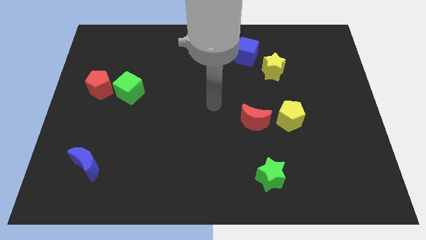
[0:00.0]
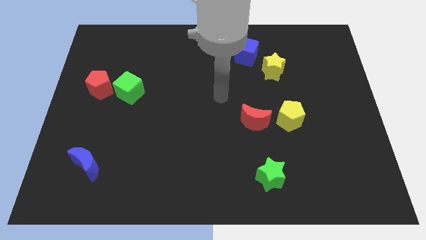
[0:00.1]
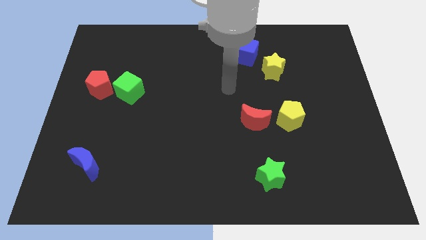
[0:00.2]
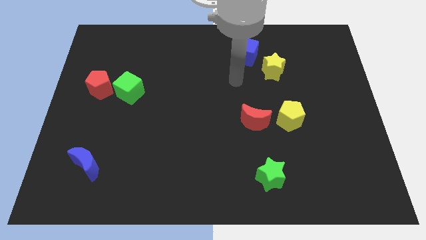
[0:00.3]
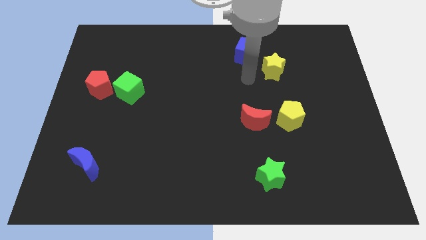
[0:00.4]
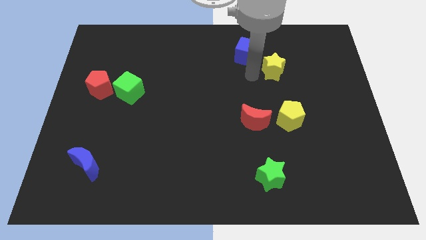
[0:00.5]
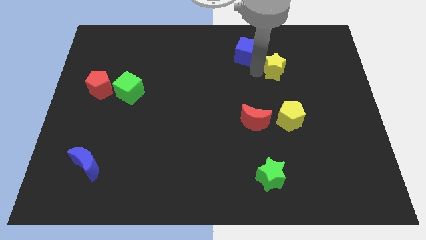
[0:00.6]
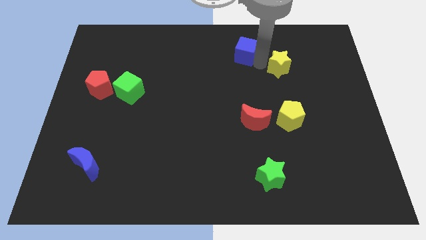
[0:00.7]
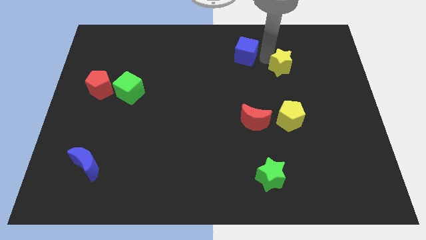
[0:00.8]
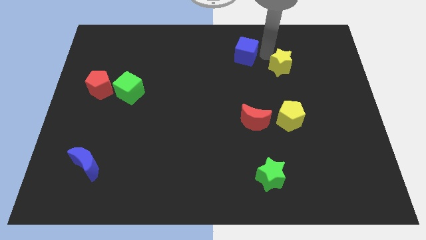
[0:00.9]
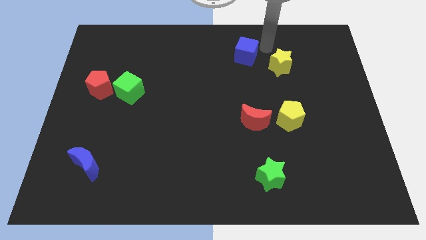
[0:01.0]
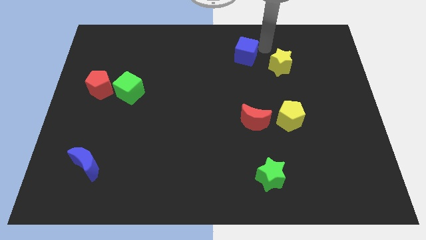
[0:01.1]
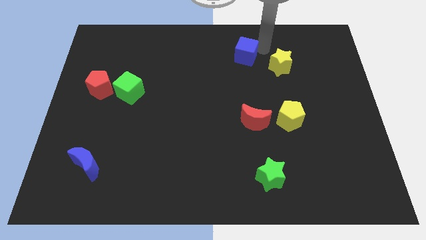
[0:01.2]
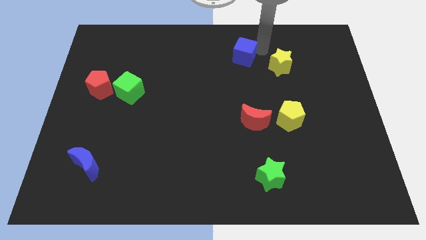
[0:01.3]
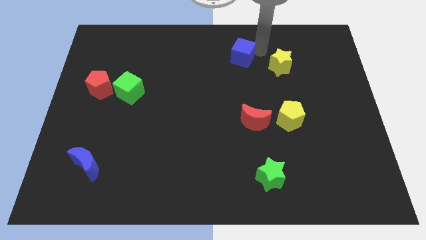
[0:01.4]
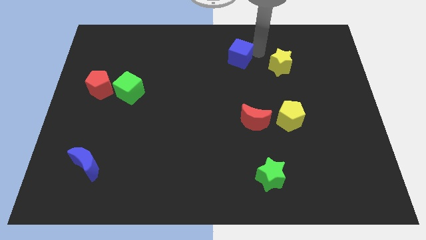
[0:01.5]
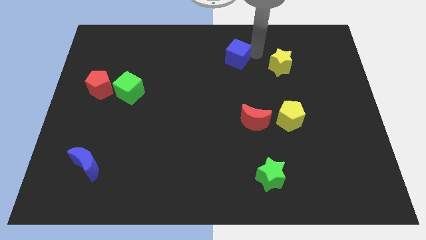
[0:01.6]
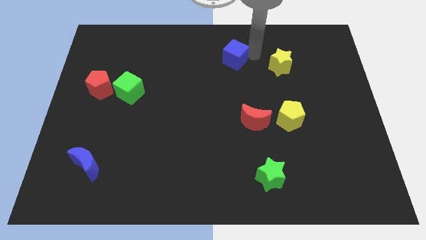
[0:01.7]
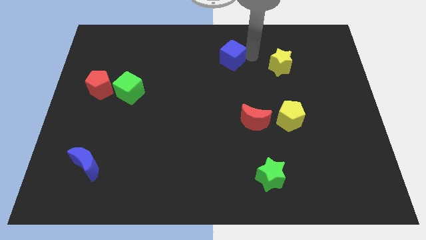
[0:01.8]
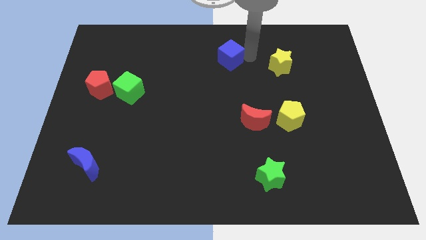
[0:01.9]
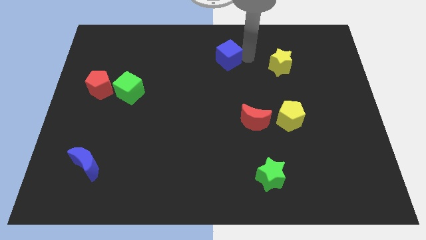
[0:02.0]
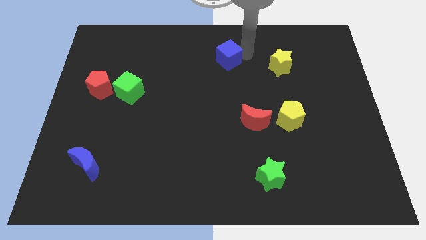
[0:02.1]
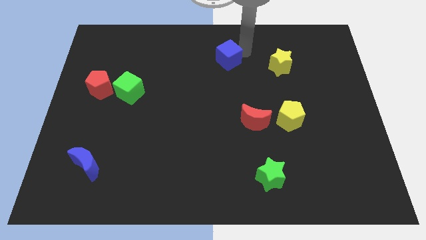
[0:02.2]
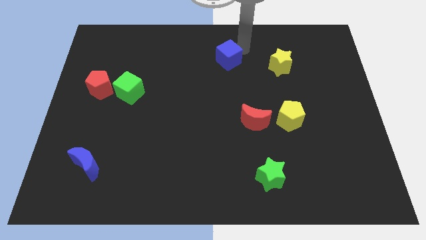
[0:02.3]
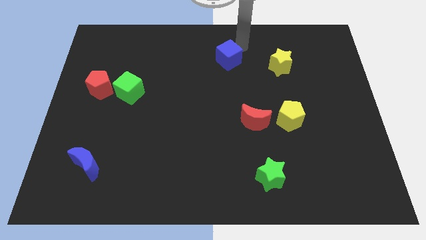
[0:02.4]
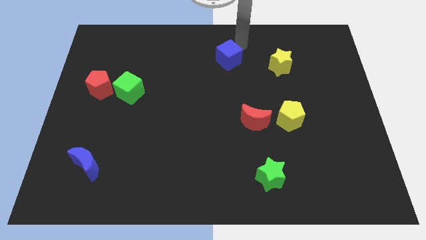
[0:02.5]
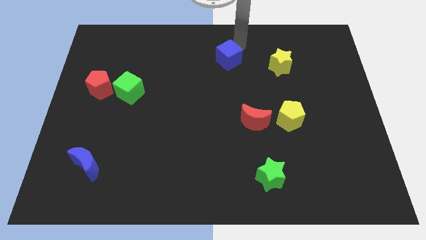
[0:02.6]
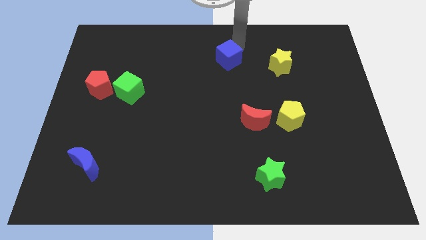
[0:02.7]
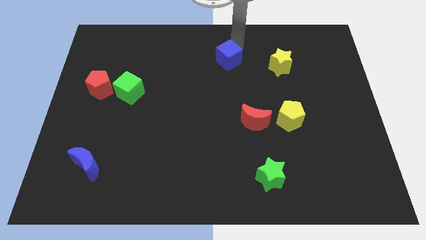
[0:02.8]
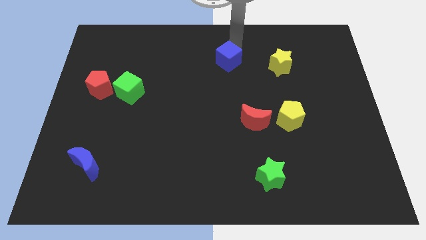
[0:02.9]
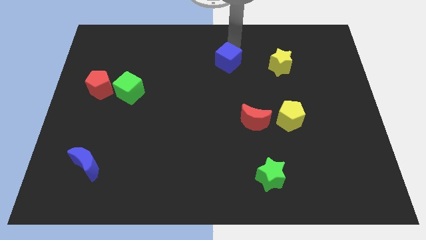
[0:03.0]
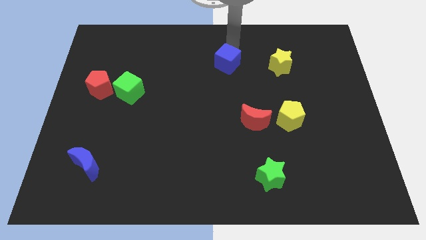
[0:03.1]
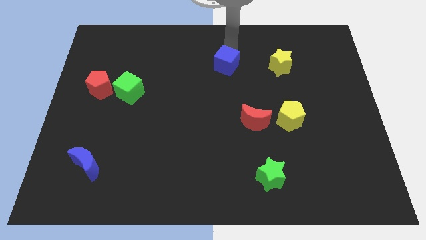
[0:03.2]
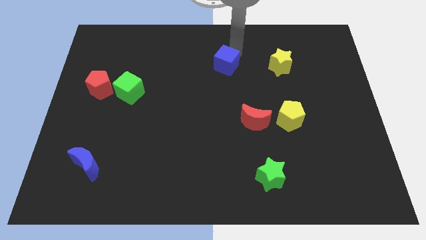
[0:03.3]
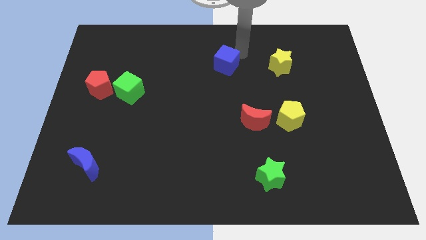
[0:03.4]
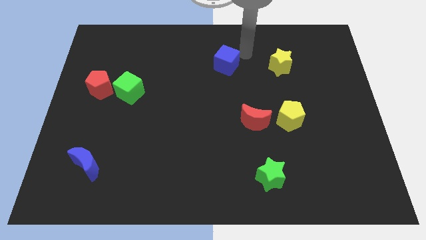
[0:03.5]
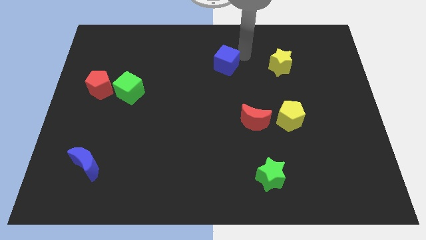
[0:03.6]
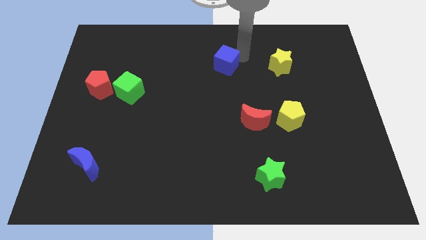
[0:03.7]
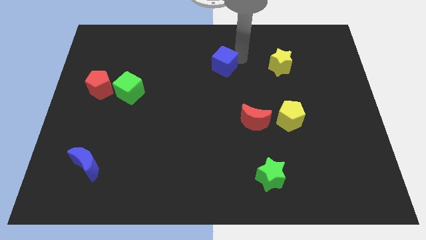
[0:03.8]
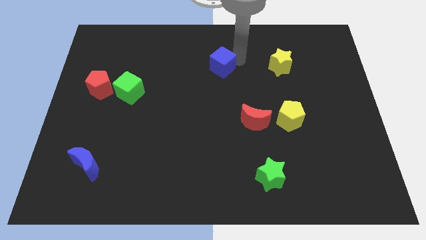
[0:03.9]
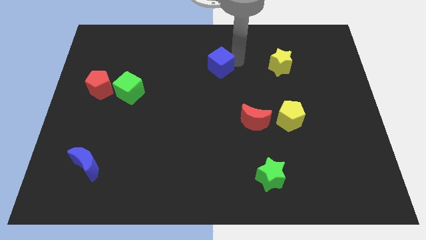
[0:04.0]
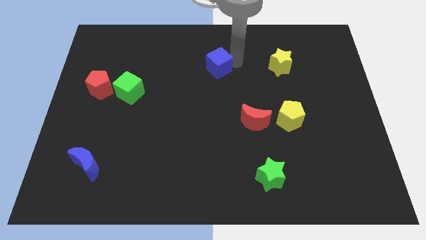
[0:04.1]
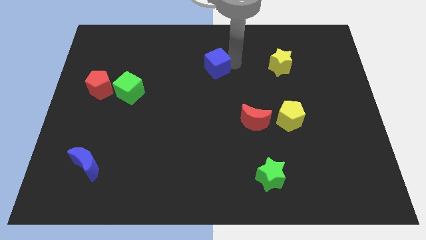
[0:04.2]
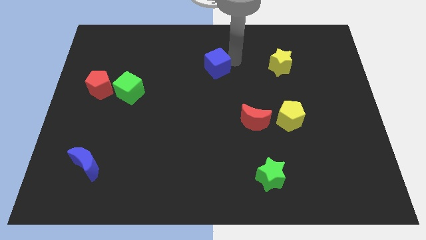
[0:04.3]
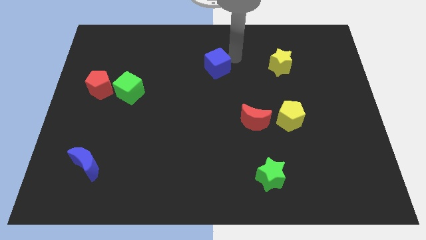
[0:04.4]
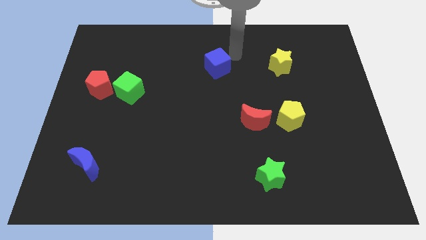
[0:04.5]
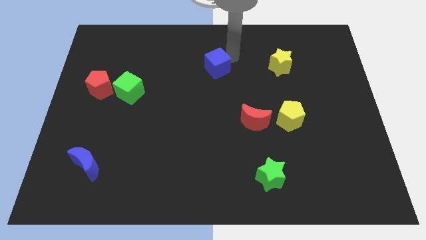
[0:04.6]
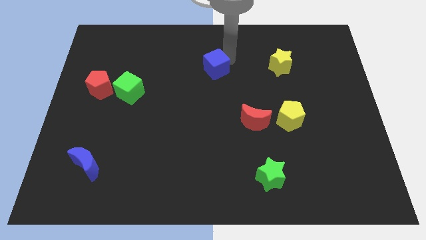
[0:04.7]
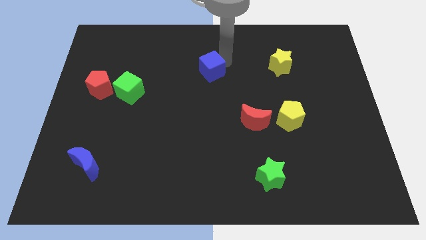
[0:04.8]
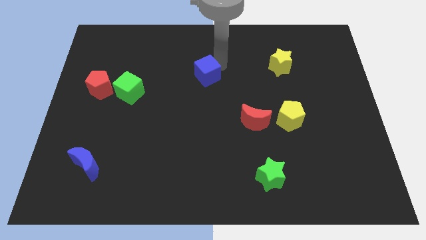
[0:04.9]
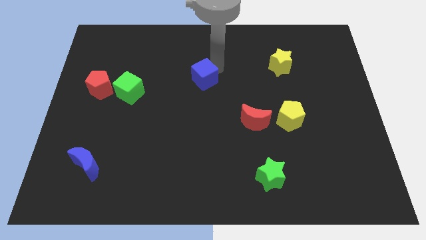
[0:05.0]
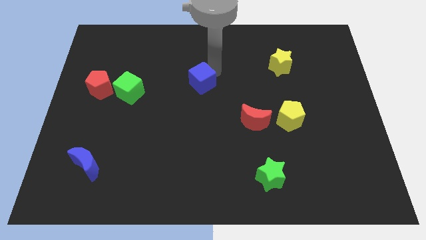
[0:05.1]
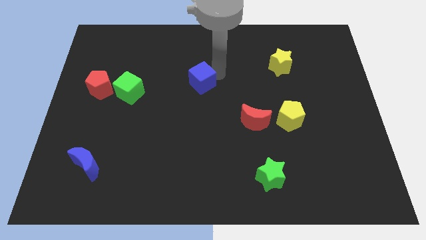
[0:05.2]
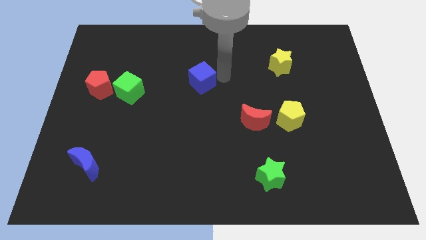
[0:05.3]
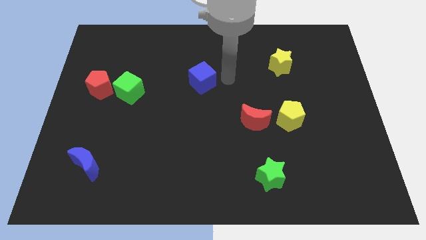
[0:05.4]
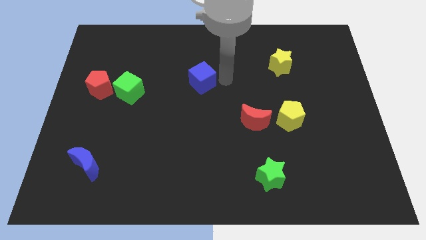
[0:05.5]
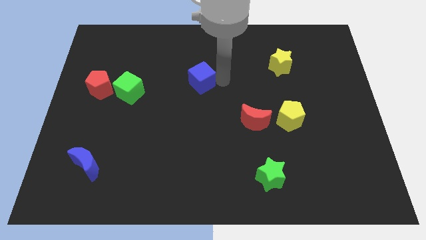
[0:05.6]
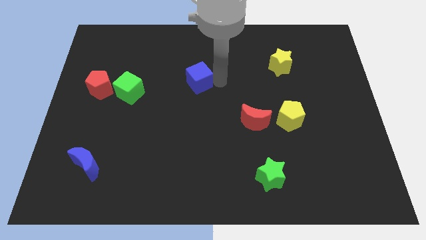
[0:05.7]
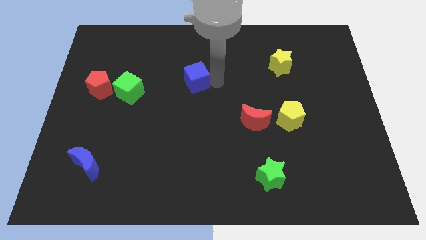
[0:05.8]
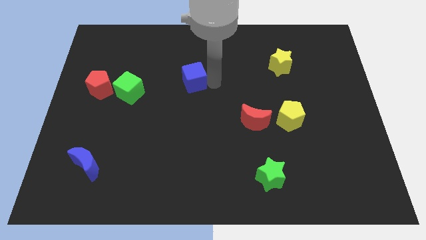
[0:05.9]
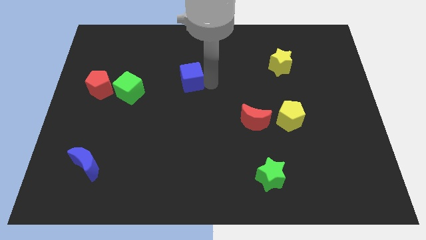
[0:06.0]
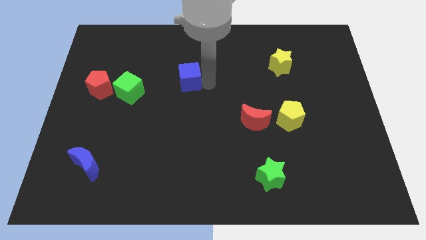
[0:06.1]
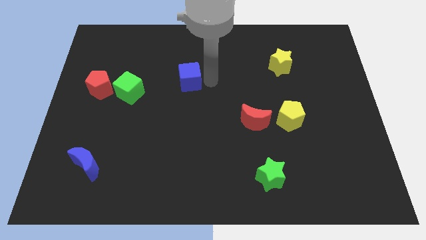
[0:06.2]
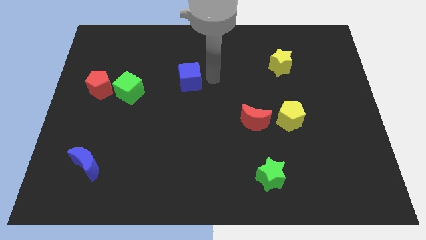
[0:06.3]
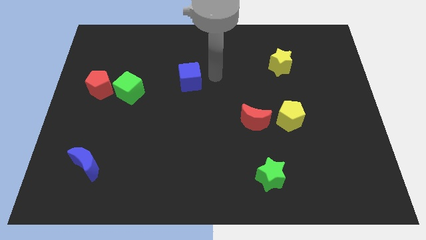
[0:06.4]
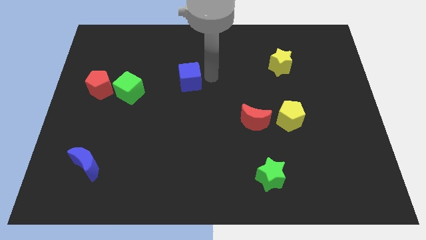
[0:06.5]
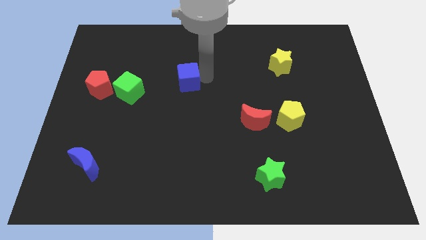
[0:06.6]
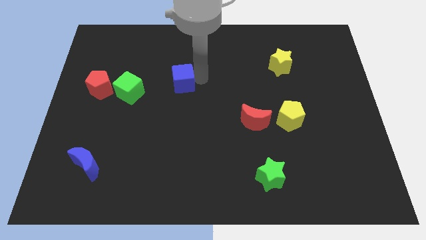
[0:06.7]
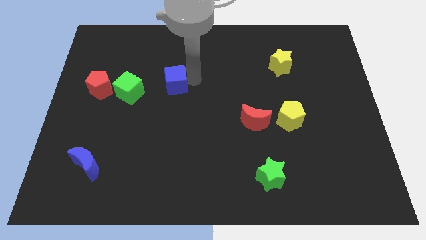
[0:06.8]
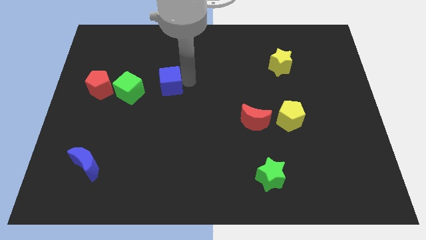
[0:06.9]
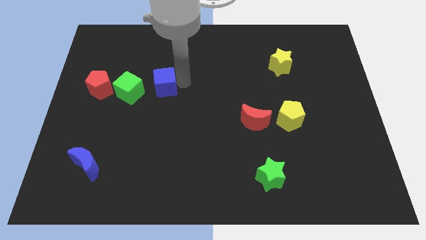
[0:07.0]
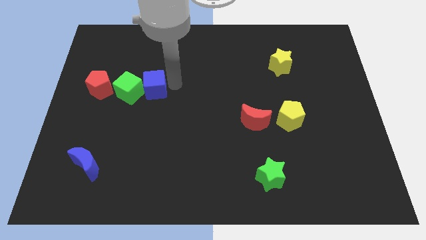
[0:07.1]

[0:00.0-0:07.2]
slide the blue cube next to the green cube
